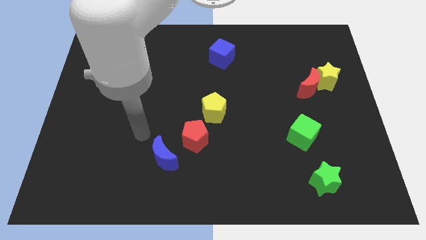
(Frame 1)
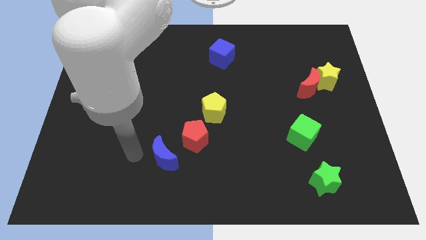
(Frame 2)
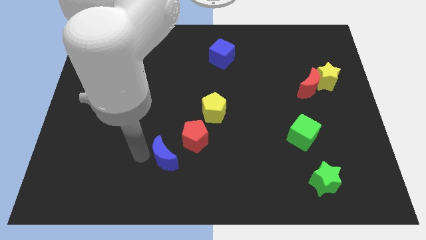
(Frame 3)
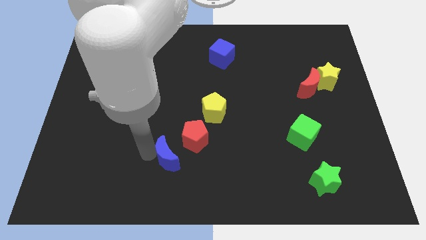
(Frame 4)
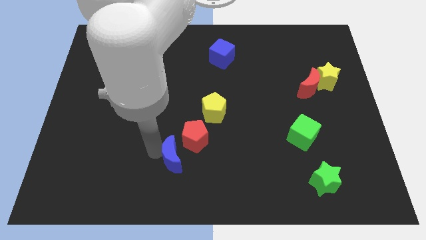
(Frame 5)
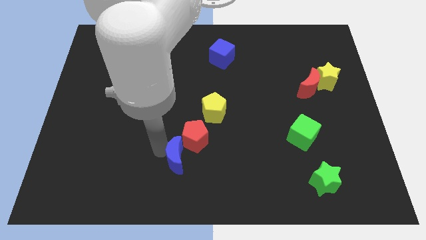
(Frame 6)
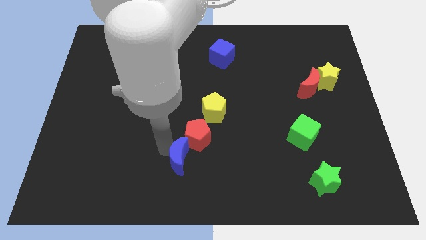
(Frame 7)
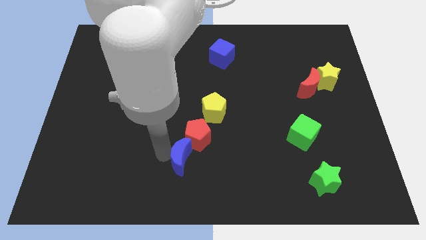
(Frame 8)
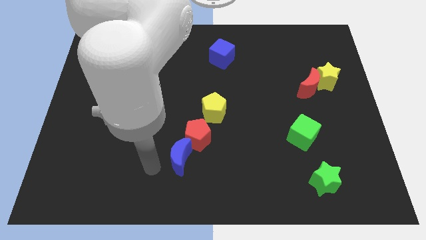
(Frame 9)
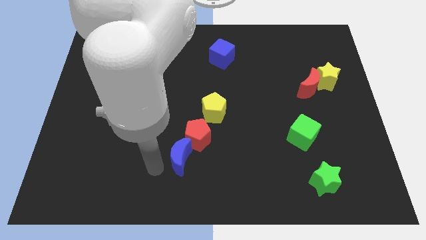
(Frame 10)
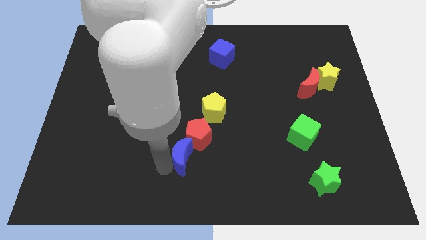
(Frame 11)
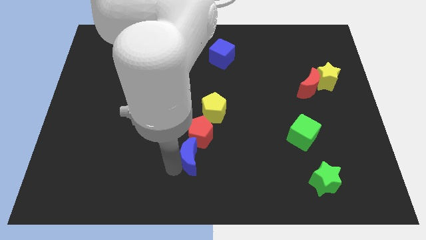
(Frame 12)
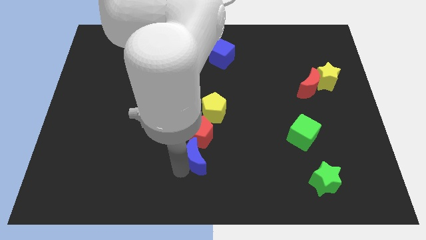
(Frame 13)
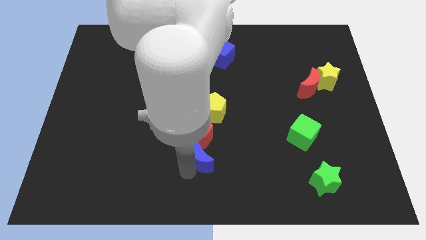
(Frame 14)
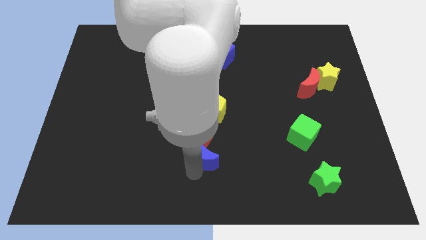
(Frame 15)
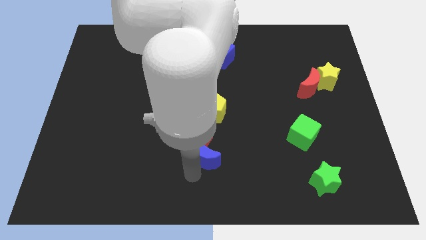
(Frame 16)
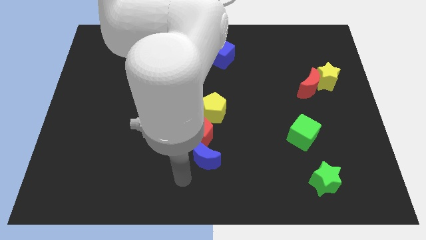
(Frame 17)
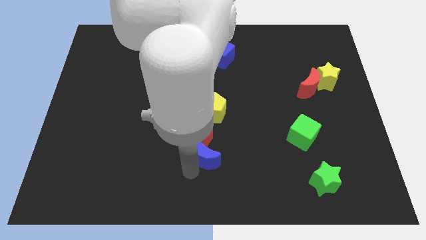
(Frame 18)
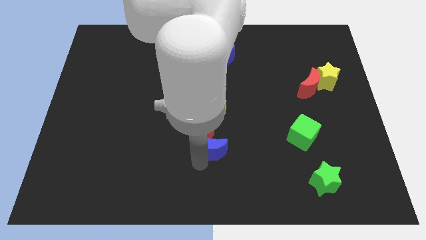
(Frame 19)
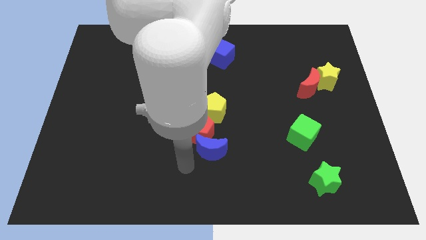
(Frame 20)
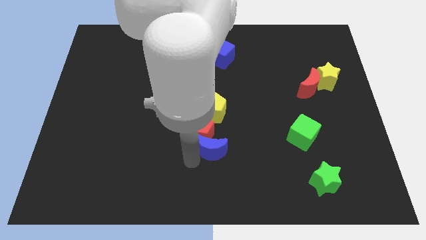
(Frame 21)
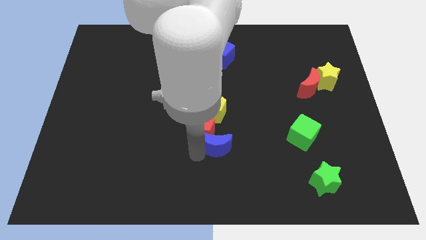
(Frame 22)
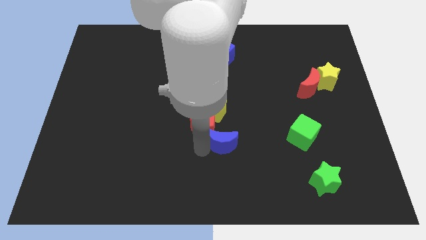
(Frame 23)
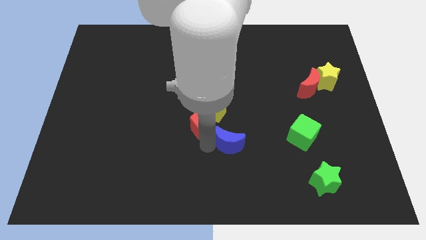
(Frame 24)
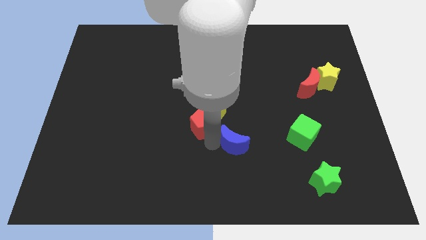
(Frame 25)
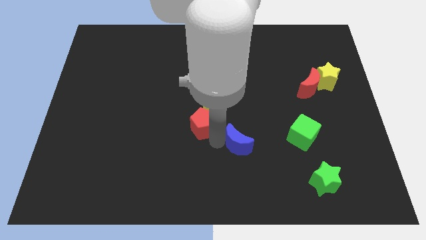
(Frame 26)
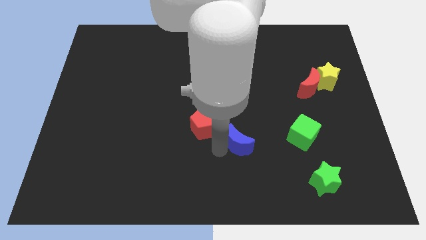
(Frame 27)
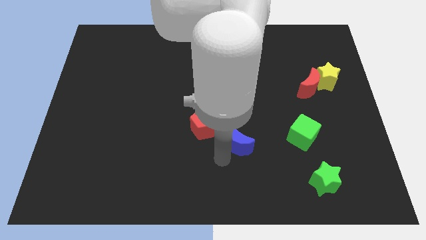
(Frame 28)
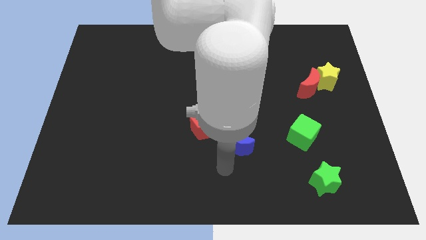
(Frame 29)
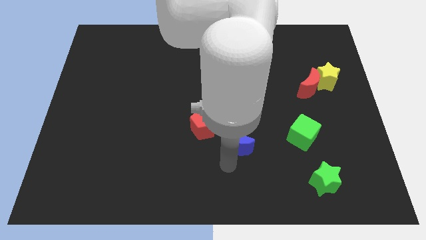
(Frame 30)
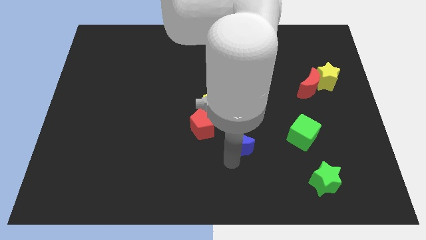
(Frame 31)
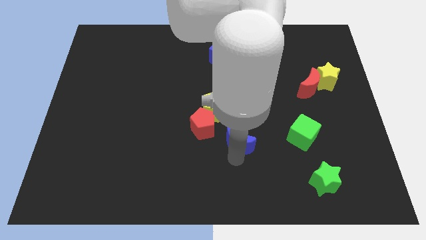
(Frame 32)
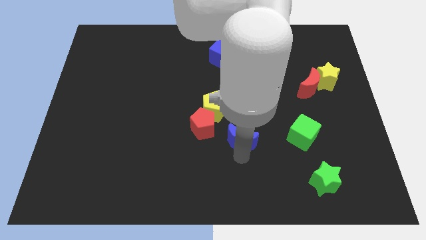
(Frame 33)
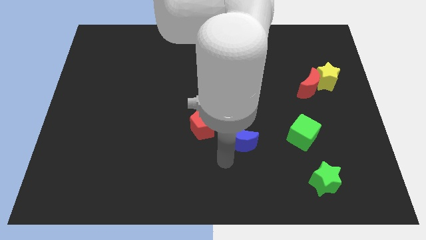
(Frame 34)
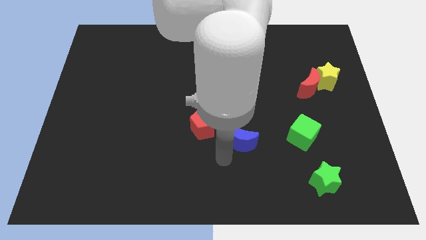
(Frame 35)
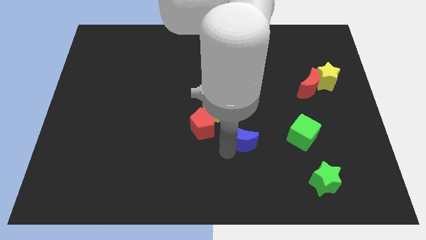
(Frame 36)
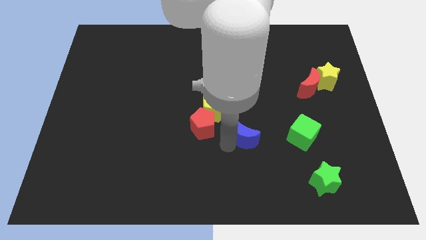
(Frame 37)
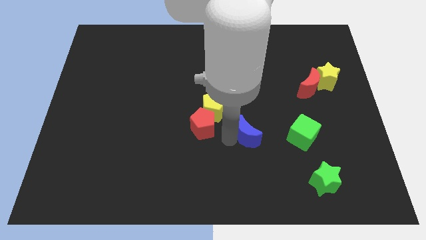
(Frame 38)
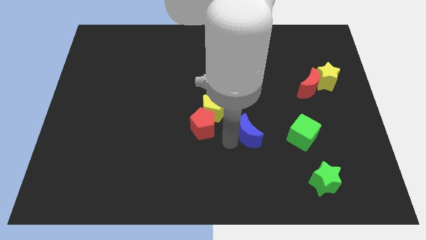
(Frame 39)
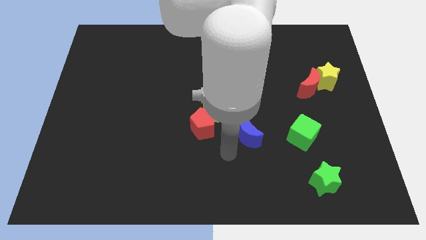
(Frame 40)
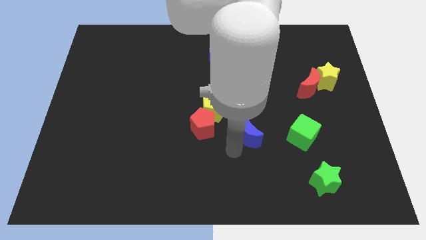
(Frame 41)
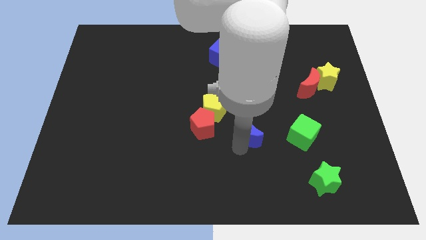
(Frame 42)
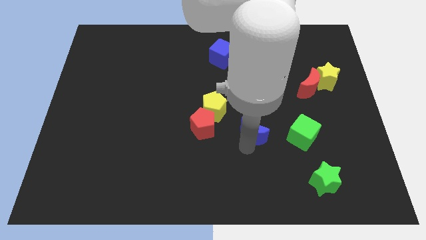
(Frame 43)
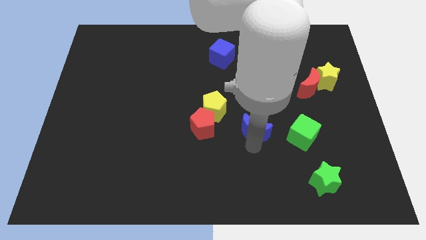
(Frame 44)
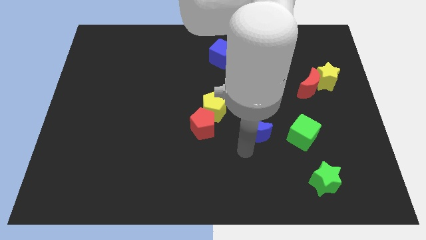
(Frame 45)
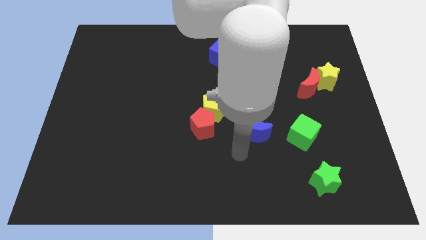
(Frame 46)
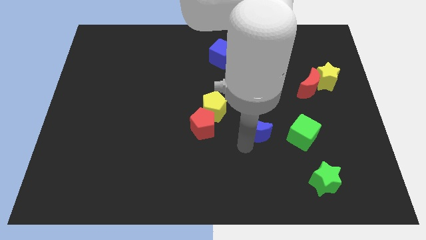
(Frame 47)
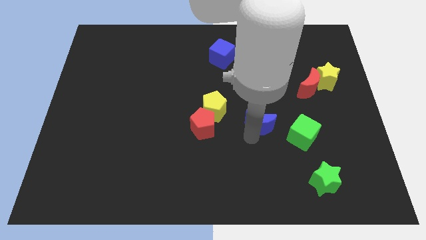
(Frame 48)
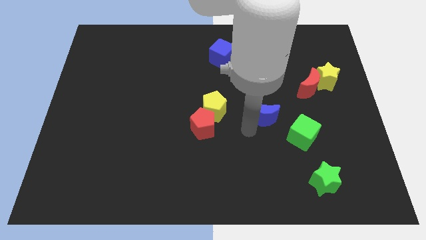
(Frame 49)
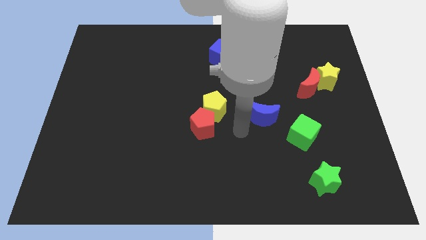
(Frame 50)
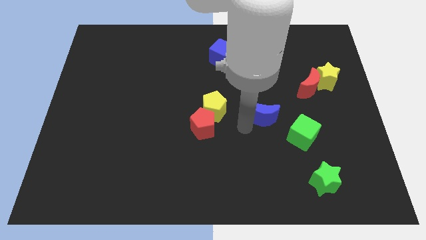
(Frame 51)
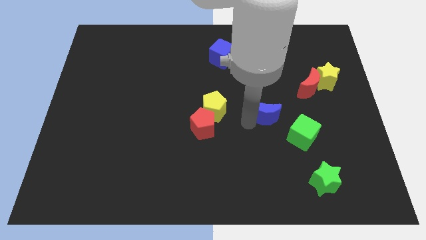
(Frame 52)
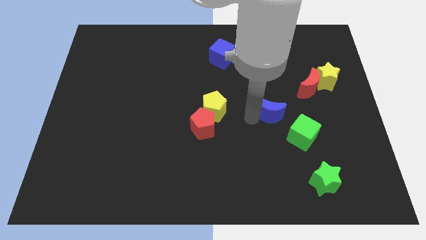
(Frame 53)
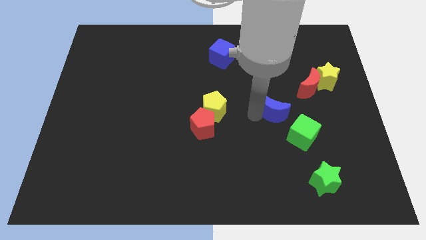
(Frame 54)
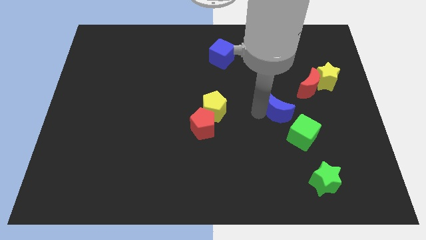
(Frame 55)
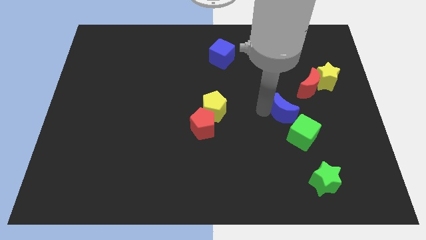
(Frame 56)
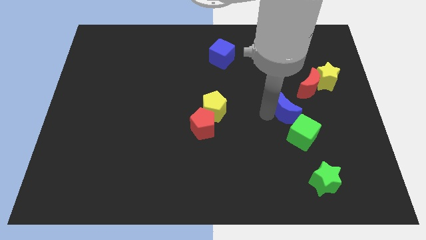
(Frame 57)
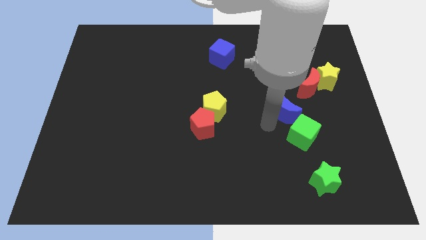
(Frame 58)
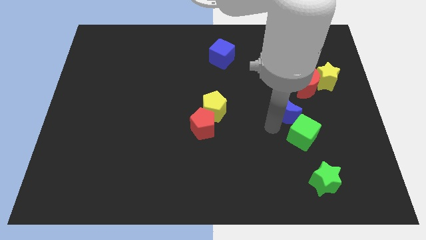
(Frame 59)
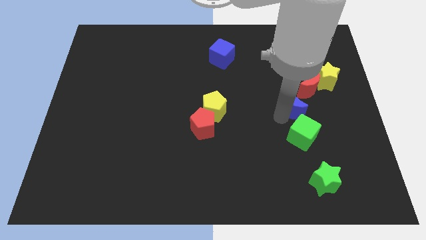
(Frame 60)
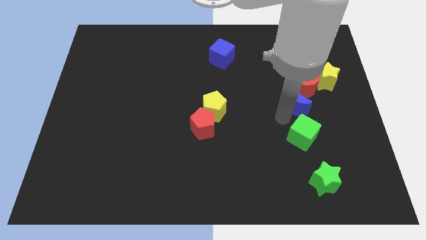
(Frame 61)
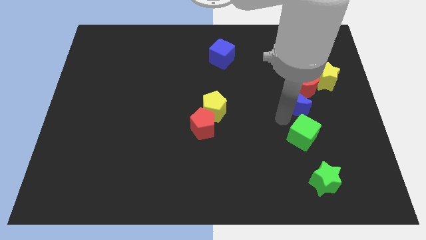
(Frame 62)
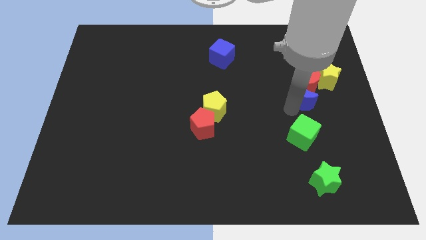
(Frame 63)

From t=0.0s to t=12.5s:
put the blue moon towards the red moon
